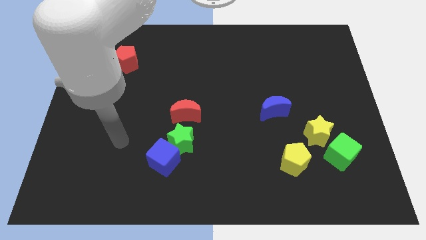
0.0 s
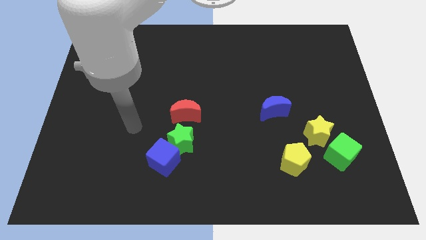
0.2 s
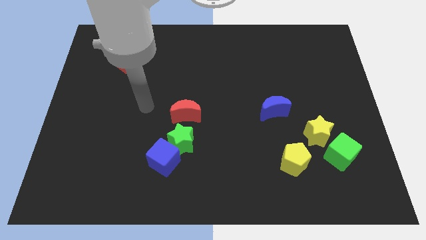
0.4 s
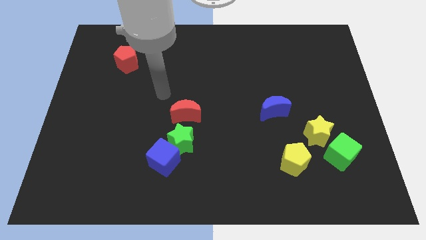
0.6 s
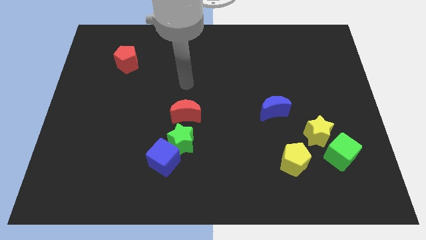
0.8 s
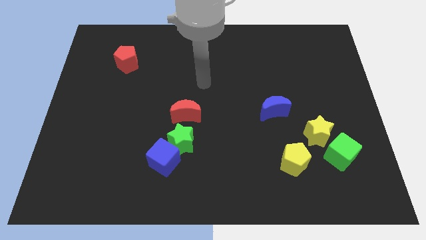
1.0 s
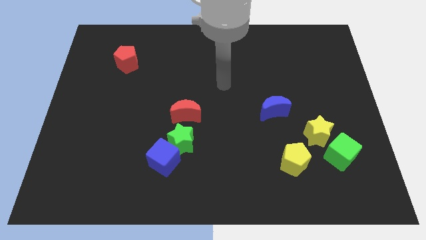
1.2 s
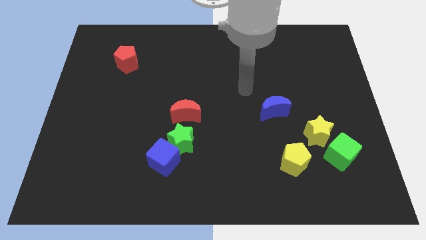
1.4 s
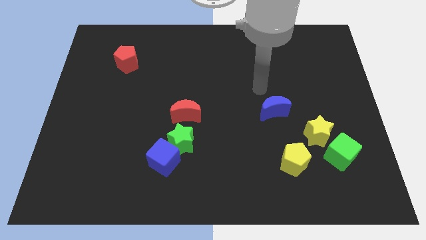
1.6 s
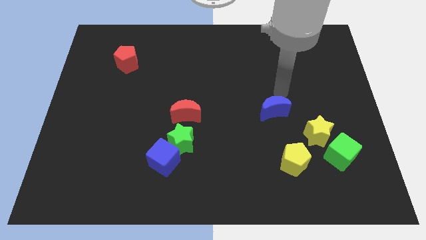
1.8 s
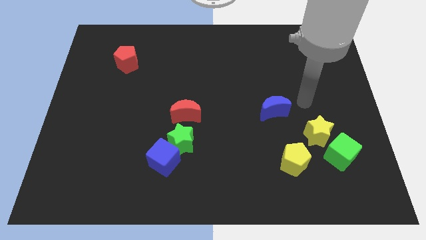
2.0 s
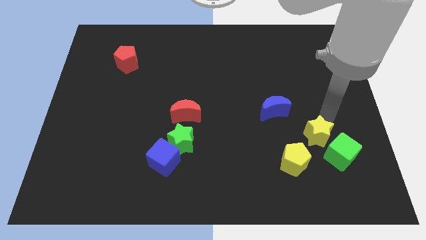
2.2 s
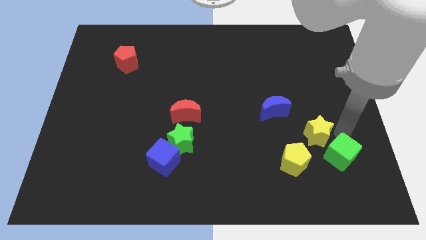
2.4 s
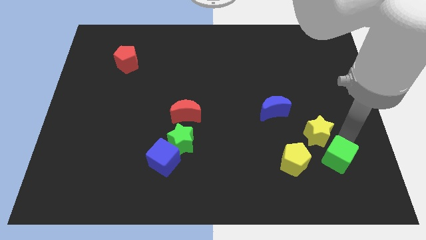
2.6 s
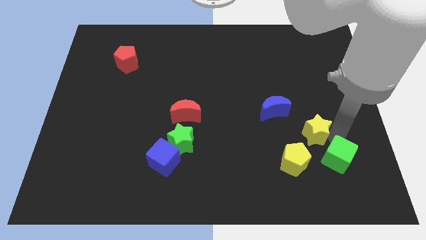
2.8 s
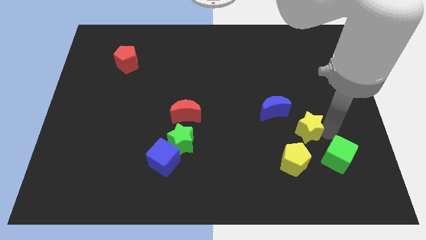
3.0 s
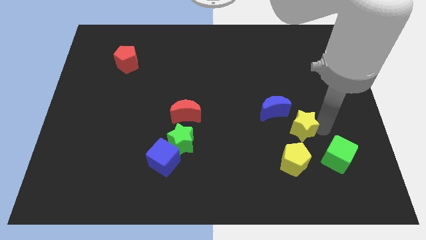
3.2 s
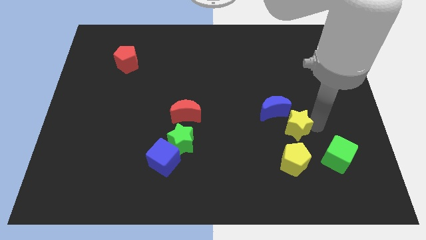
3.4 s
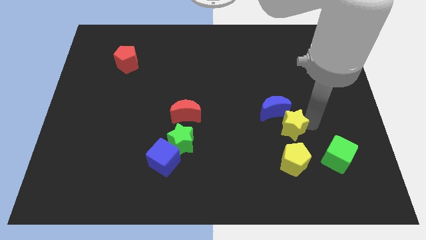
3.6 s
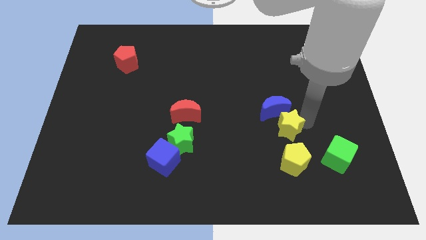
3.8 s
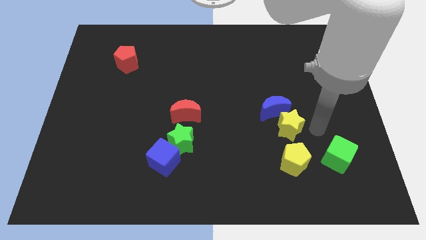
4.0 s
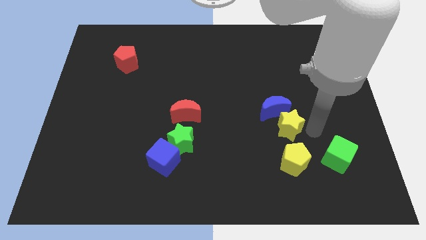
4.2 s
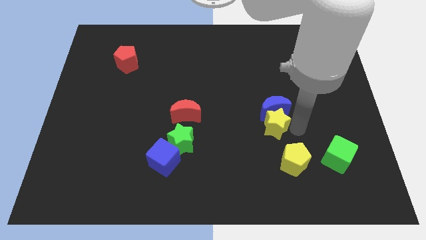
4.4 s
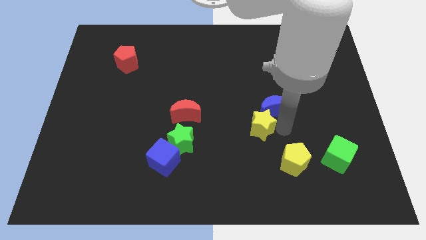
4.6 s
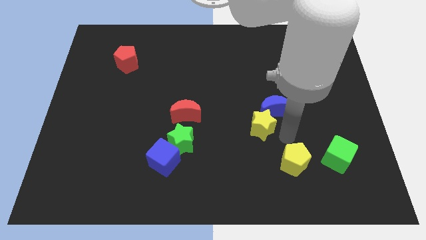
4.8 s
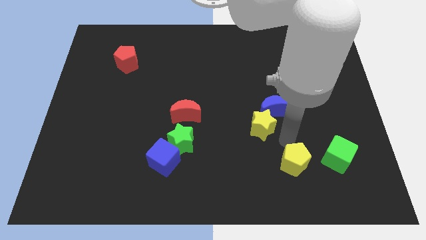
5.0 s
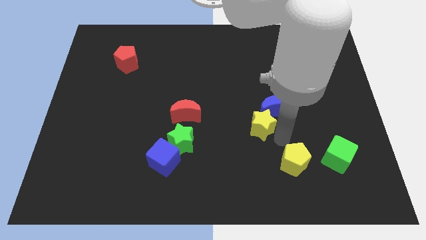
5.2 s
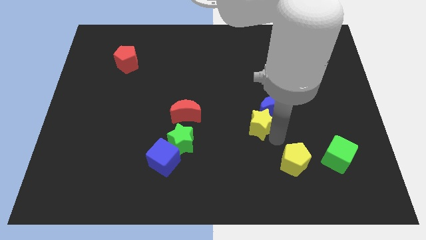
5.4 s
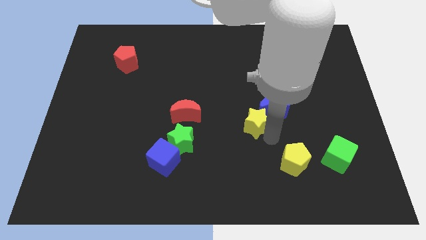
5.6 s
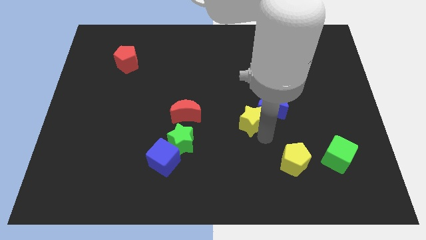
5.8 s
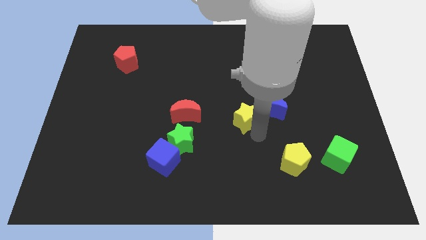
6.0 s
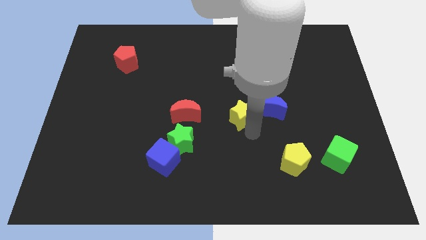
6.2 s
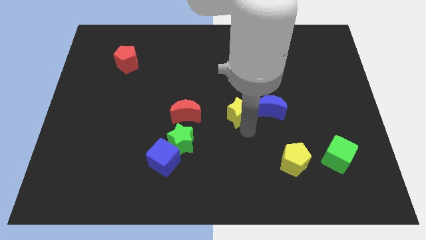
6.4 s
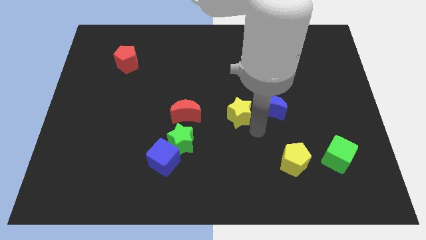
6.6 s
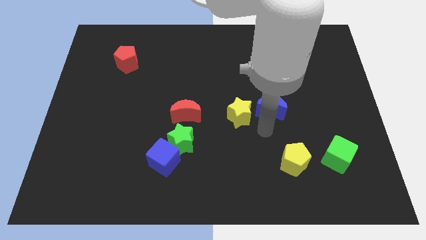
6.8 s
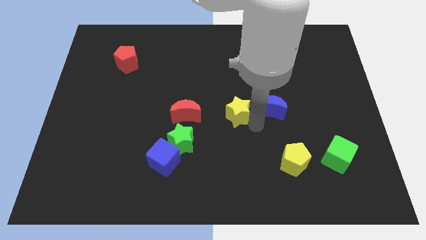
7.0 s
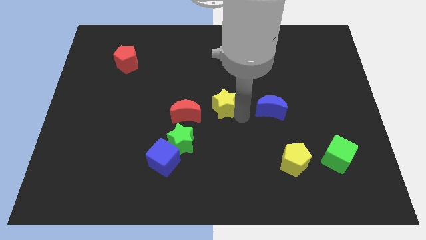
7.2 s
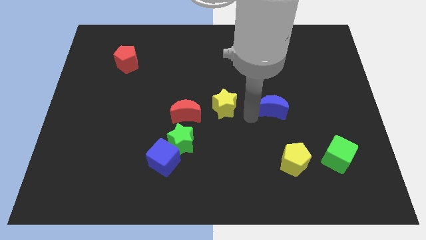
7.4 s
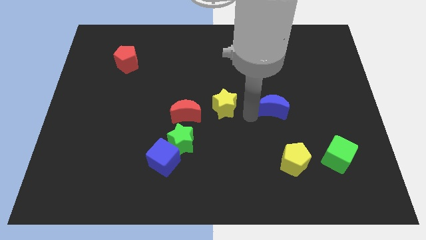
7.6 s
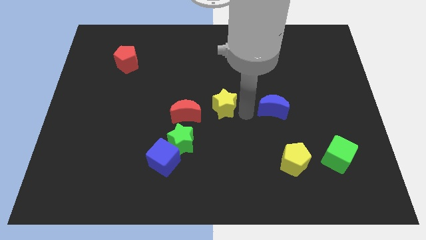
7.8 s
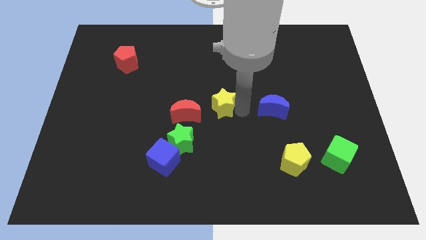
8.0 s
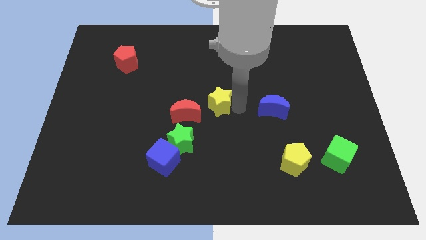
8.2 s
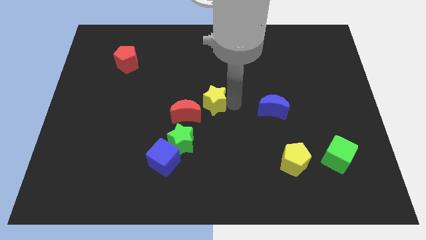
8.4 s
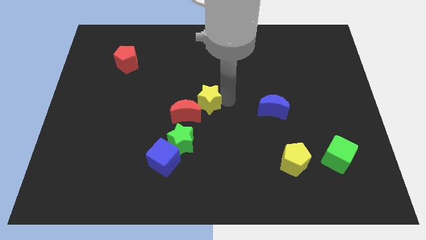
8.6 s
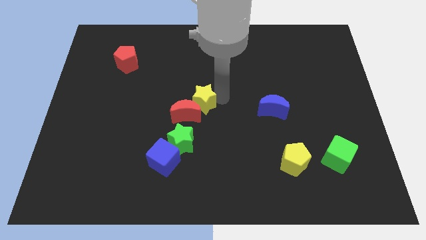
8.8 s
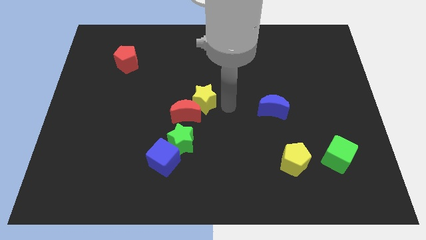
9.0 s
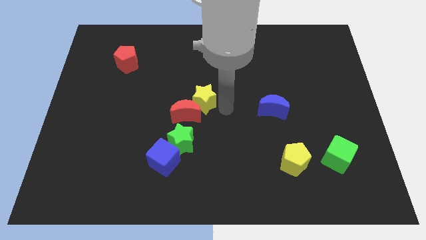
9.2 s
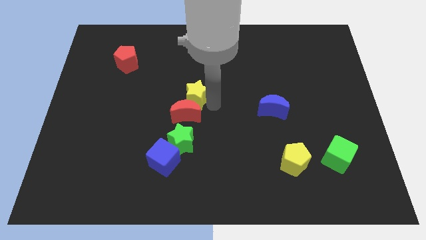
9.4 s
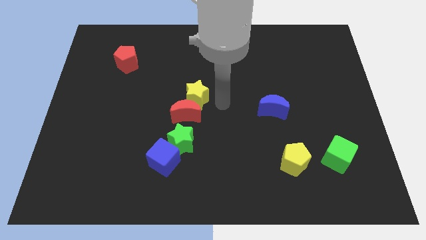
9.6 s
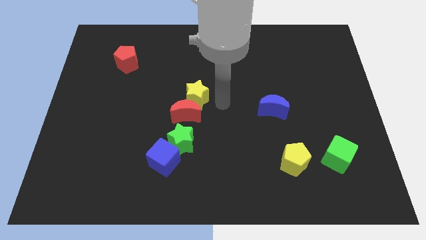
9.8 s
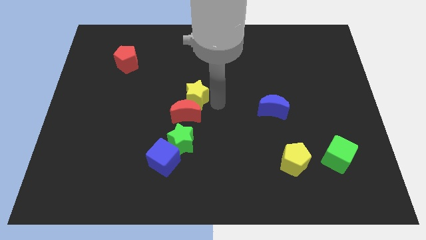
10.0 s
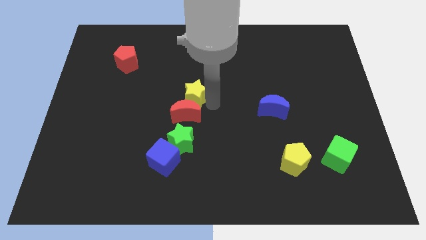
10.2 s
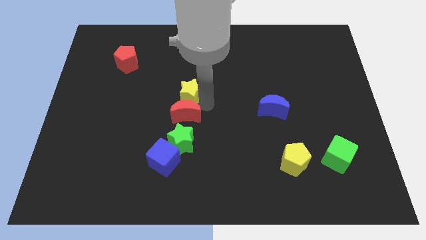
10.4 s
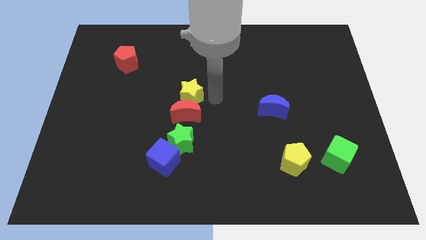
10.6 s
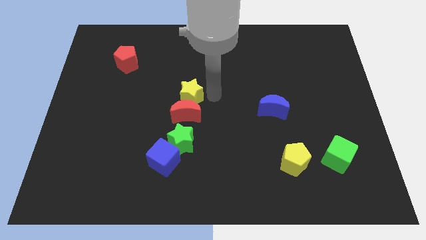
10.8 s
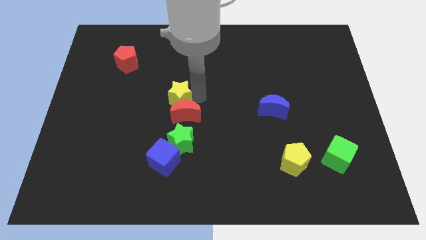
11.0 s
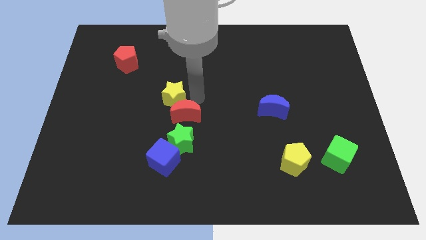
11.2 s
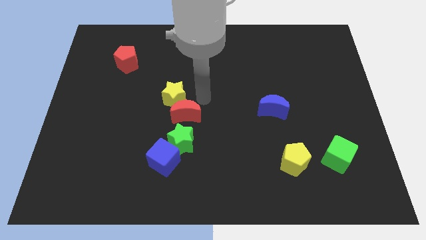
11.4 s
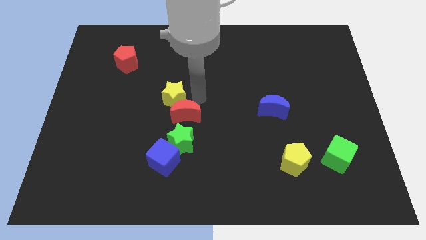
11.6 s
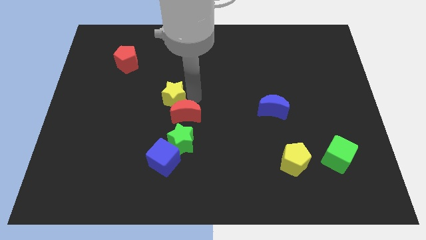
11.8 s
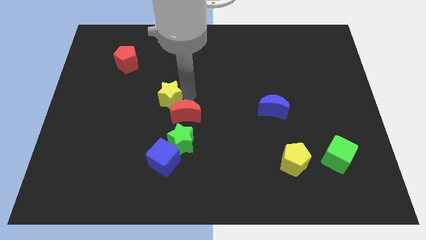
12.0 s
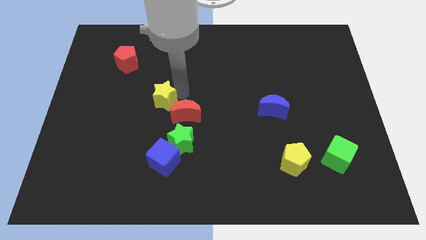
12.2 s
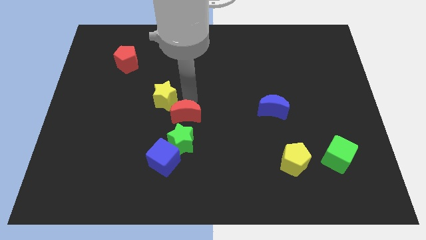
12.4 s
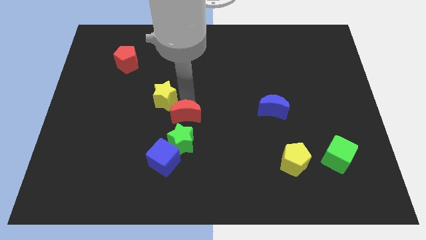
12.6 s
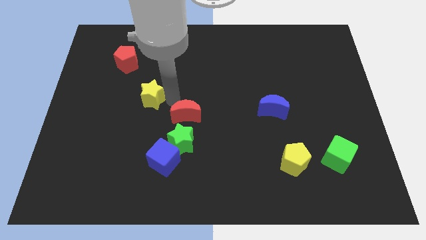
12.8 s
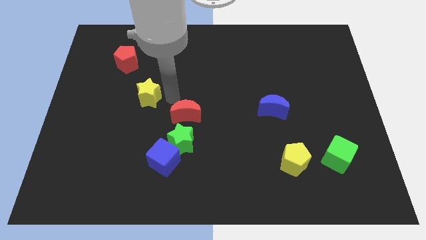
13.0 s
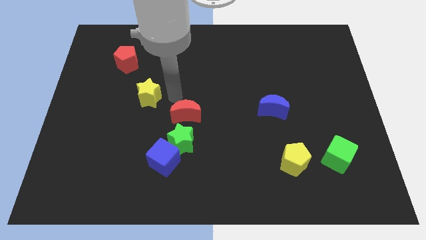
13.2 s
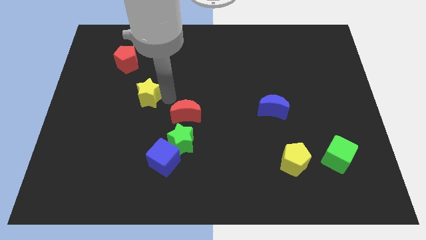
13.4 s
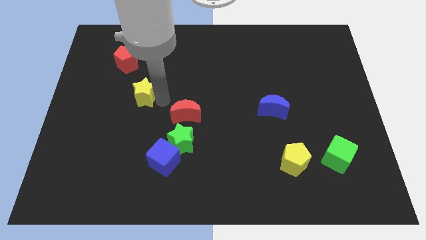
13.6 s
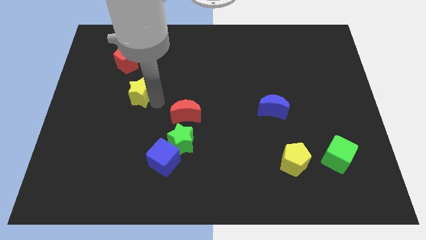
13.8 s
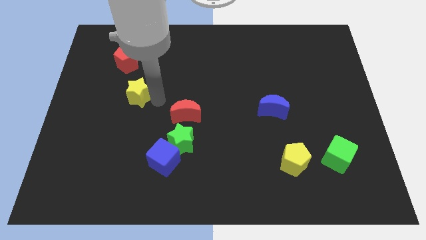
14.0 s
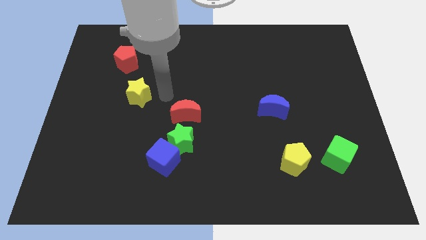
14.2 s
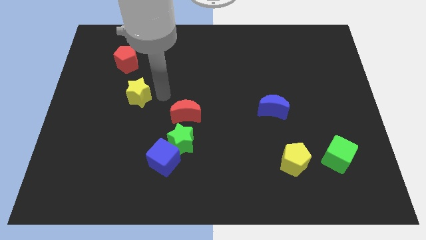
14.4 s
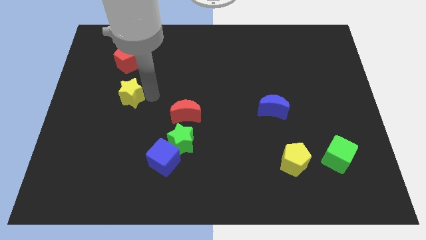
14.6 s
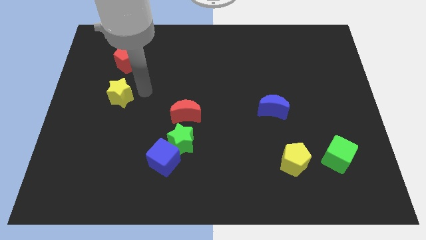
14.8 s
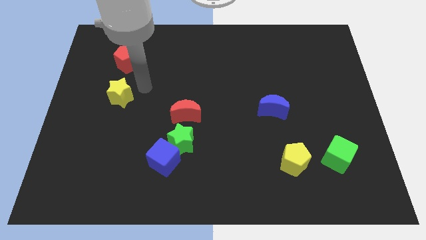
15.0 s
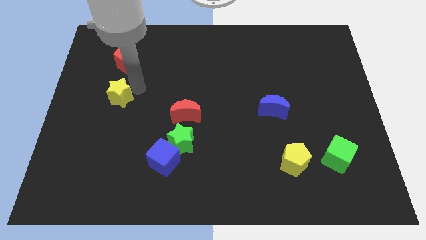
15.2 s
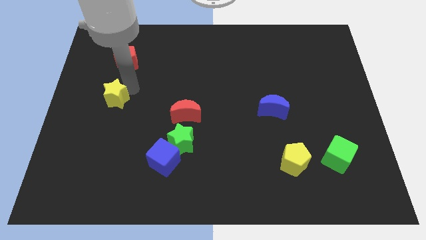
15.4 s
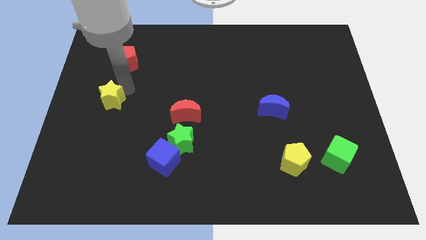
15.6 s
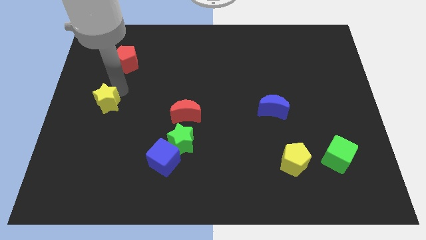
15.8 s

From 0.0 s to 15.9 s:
push the yellow star to the center left
